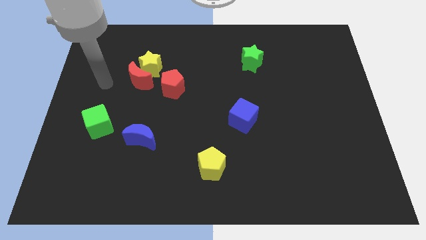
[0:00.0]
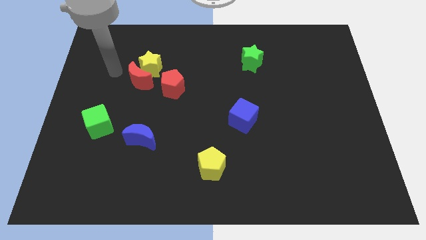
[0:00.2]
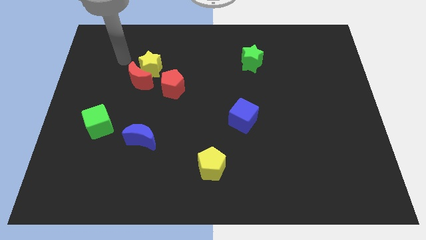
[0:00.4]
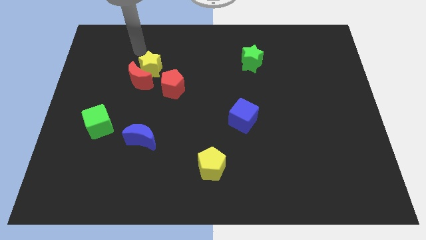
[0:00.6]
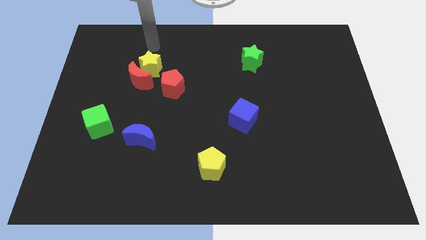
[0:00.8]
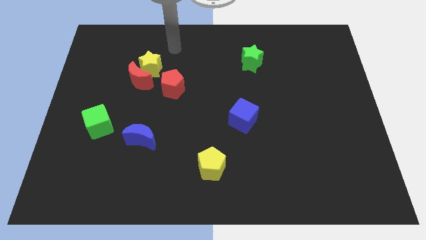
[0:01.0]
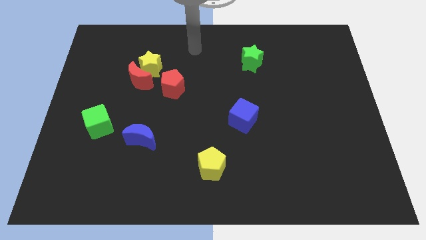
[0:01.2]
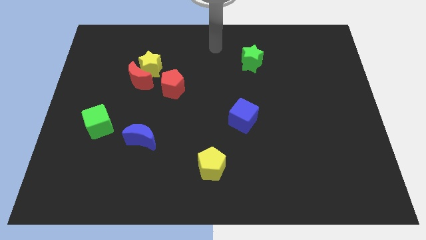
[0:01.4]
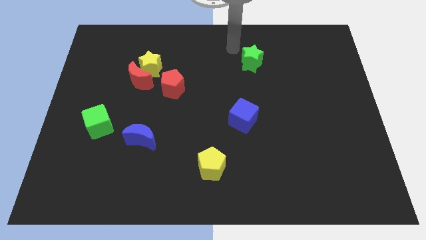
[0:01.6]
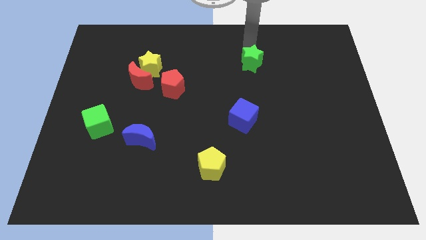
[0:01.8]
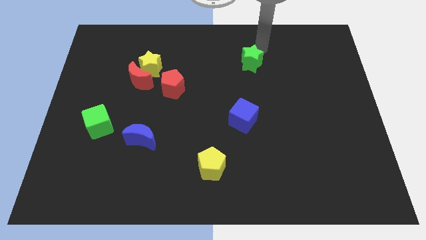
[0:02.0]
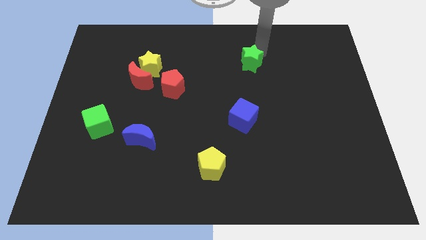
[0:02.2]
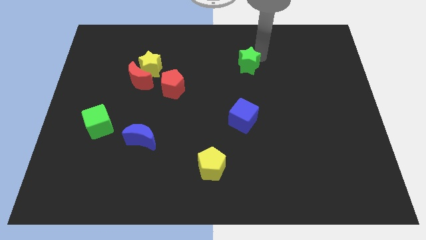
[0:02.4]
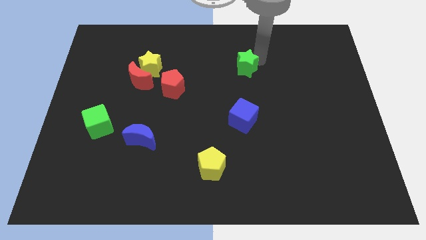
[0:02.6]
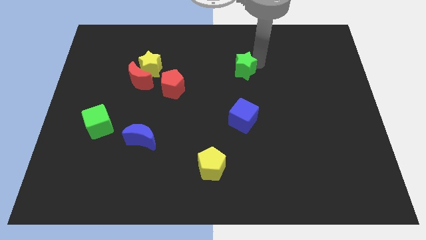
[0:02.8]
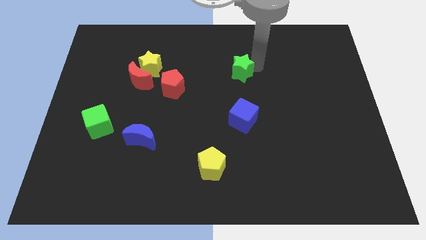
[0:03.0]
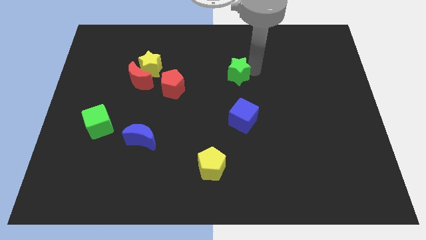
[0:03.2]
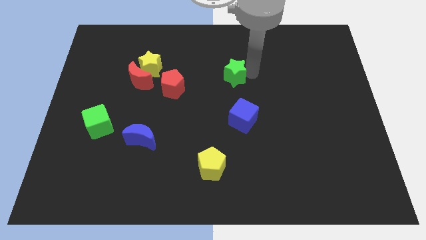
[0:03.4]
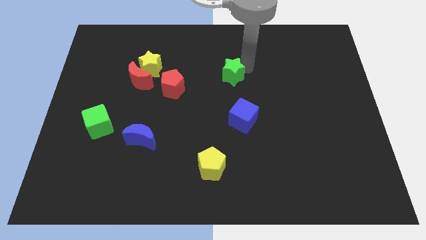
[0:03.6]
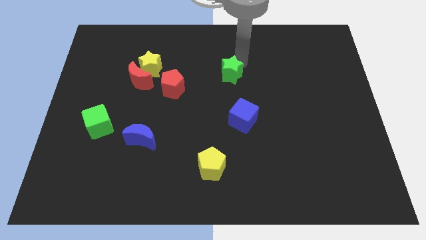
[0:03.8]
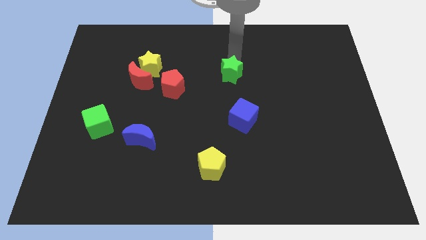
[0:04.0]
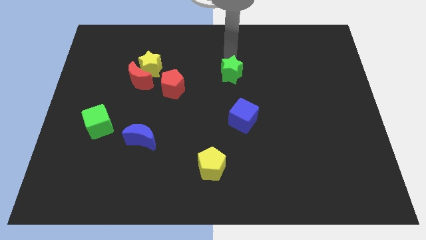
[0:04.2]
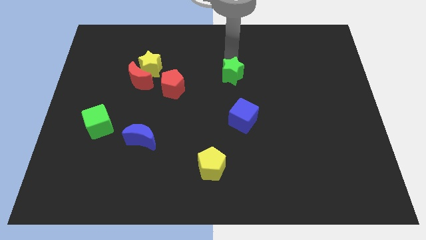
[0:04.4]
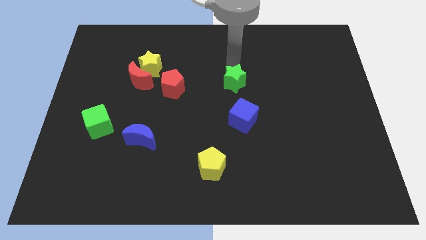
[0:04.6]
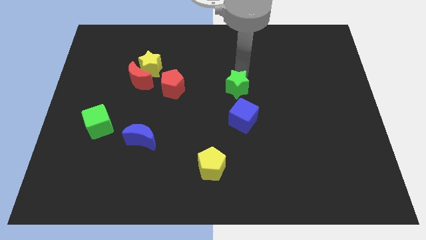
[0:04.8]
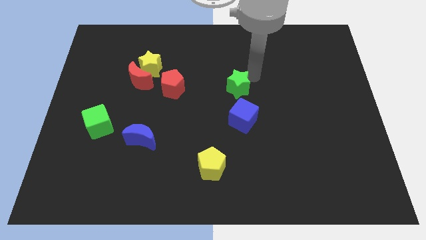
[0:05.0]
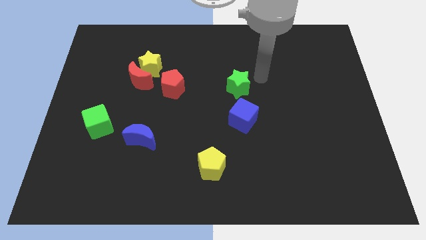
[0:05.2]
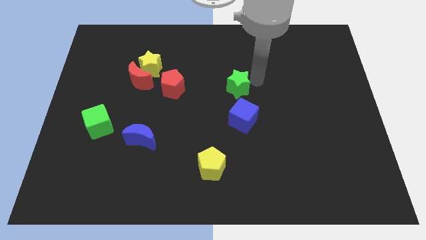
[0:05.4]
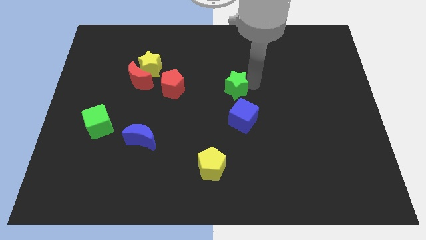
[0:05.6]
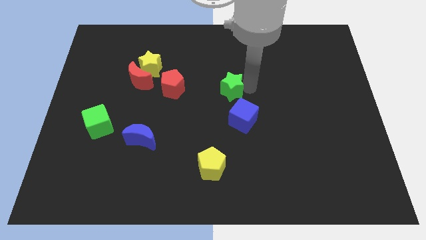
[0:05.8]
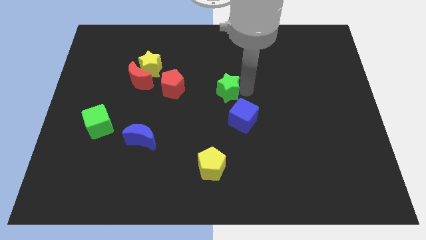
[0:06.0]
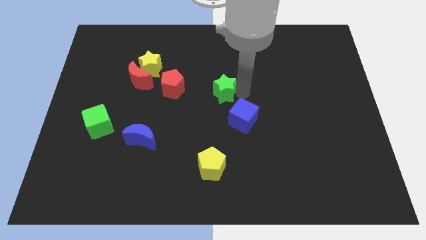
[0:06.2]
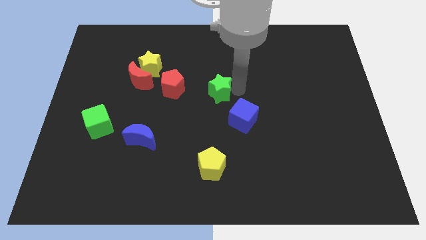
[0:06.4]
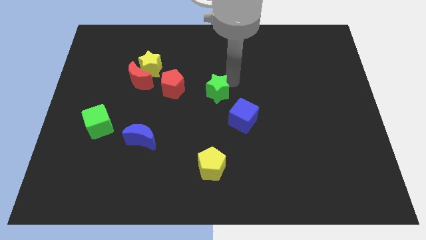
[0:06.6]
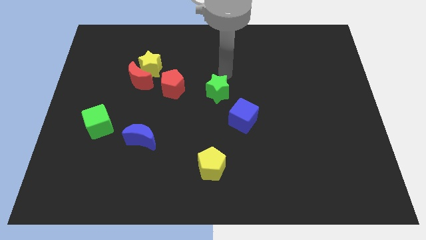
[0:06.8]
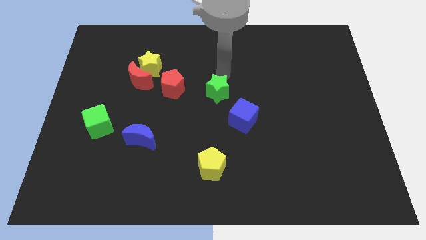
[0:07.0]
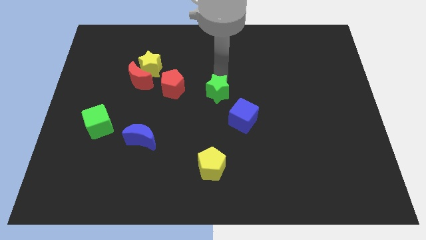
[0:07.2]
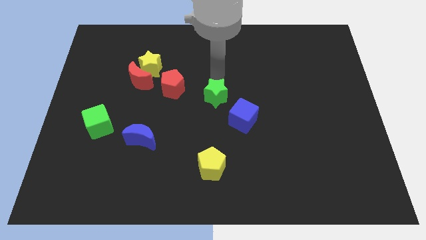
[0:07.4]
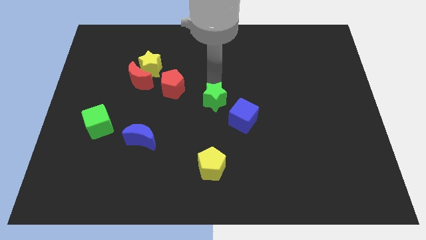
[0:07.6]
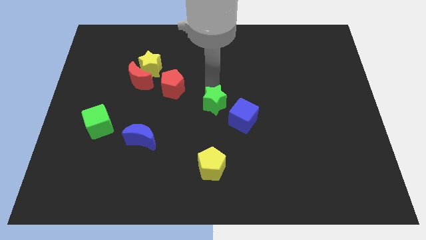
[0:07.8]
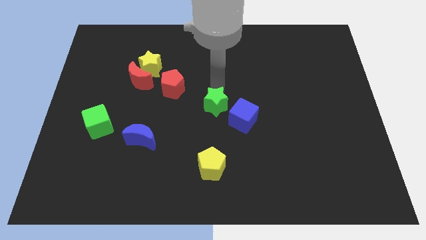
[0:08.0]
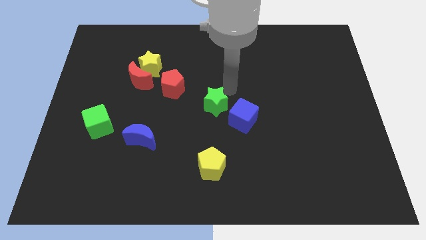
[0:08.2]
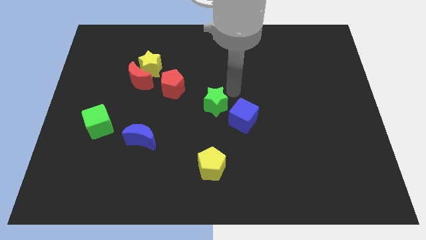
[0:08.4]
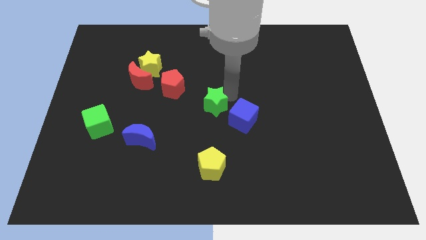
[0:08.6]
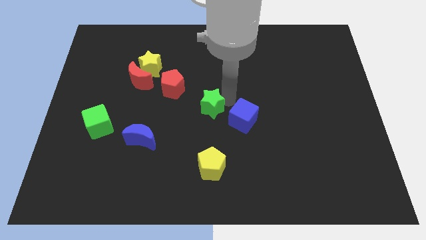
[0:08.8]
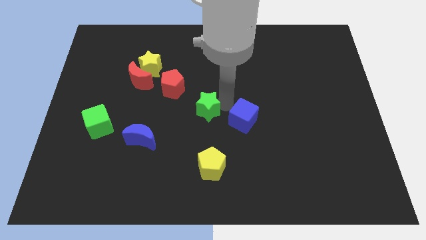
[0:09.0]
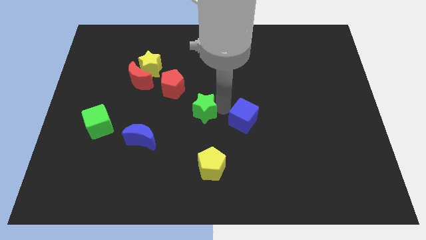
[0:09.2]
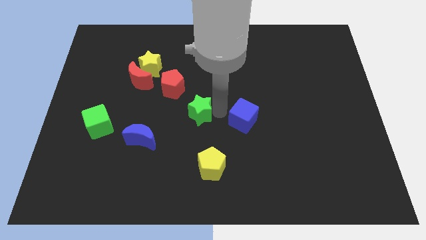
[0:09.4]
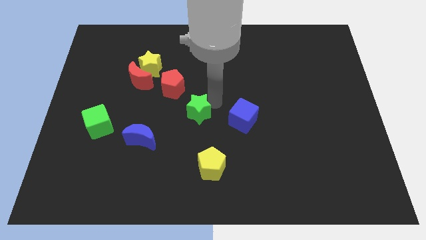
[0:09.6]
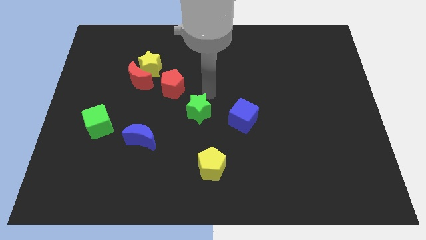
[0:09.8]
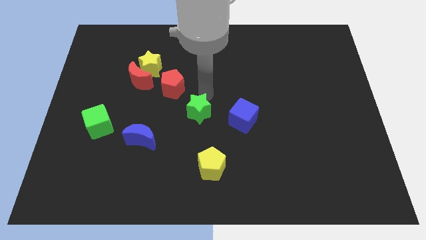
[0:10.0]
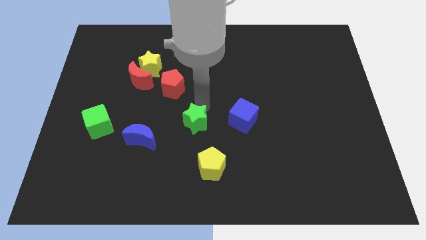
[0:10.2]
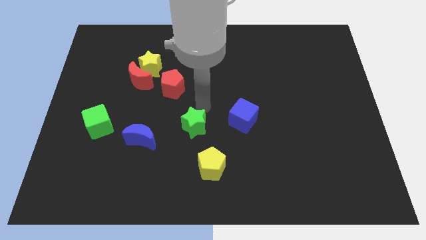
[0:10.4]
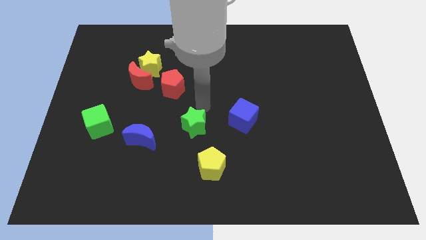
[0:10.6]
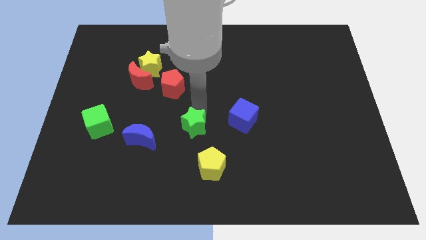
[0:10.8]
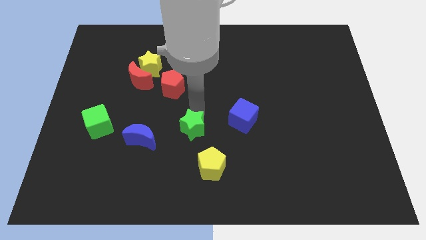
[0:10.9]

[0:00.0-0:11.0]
move the green star to the top left side of the yellow pentagon
